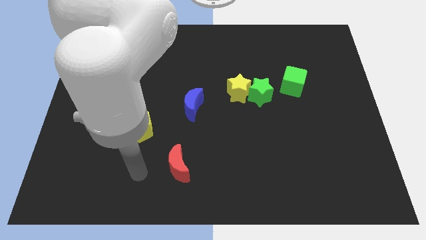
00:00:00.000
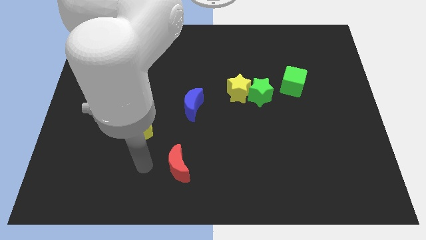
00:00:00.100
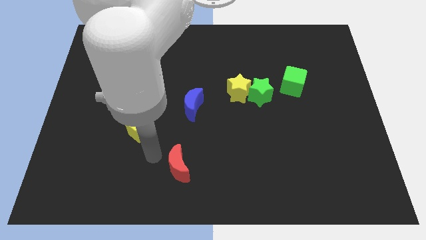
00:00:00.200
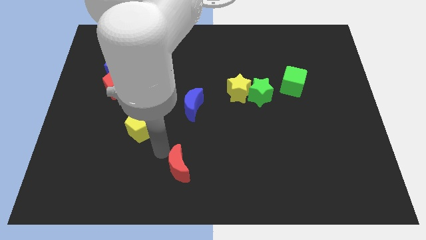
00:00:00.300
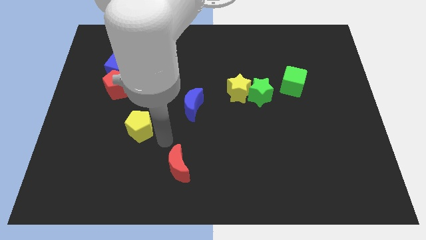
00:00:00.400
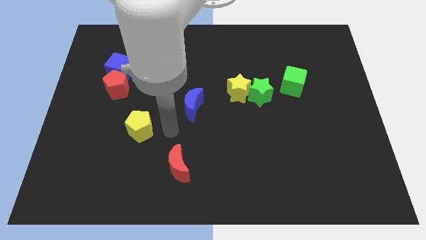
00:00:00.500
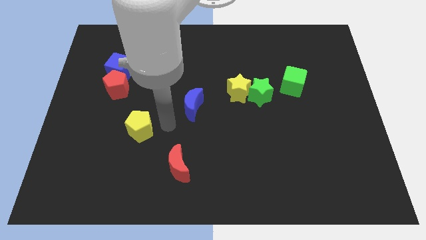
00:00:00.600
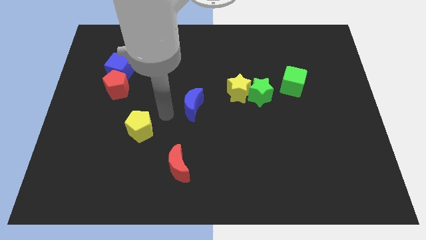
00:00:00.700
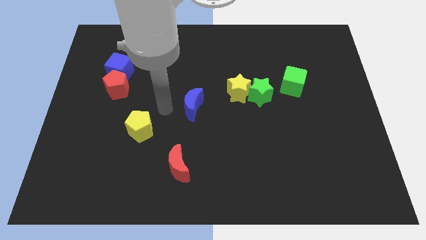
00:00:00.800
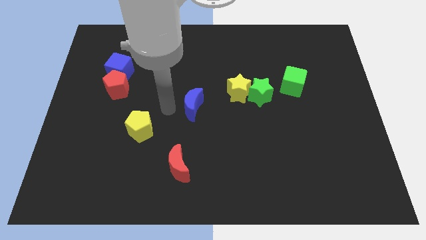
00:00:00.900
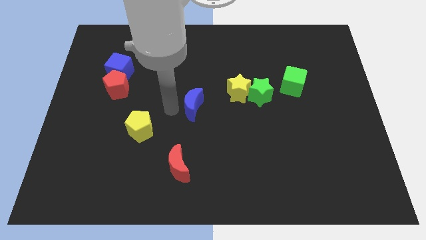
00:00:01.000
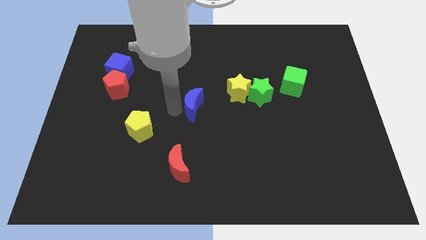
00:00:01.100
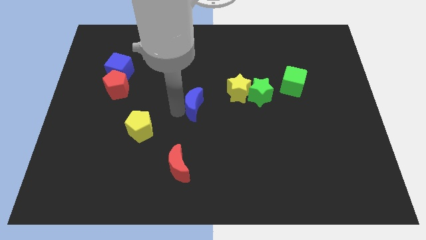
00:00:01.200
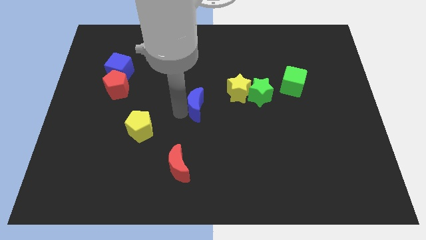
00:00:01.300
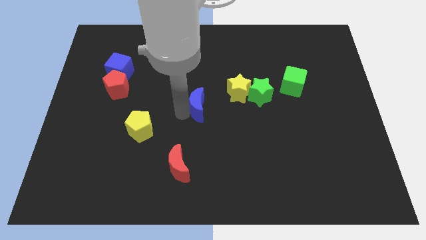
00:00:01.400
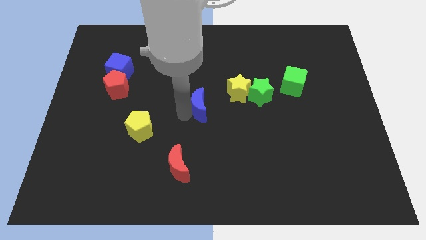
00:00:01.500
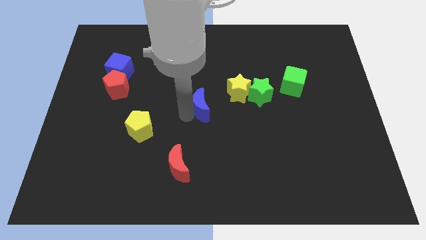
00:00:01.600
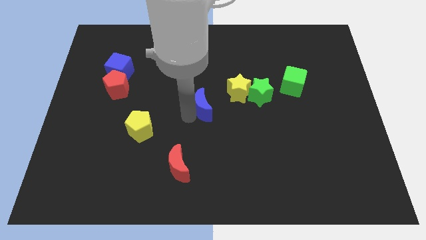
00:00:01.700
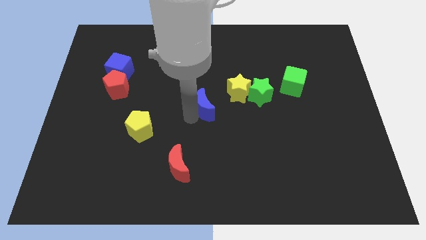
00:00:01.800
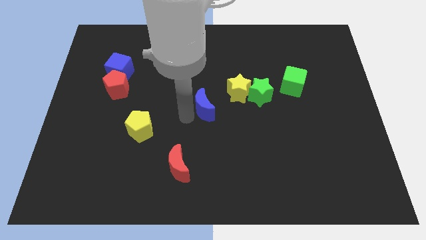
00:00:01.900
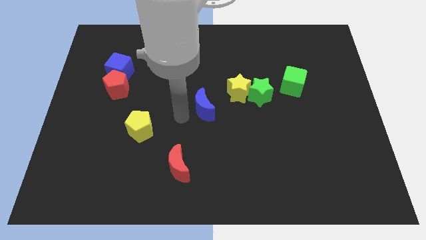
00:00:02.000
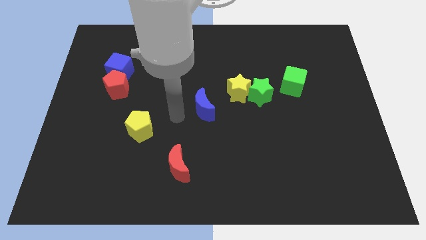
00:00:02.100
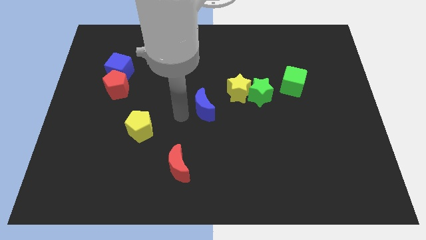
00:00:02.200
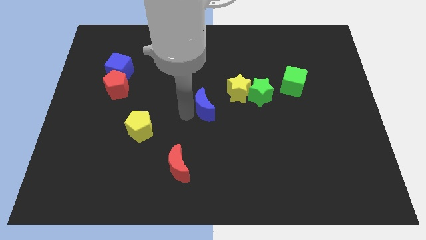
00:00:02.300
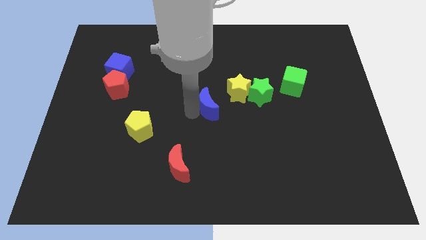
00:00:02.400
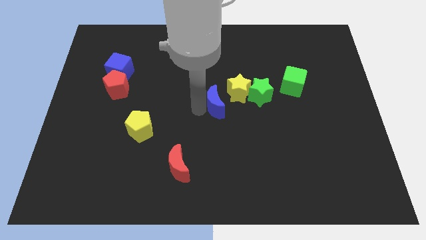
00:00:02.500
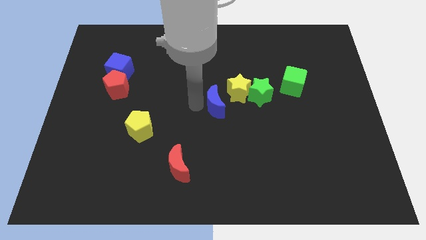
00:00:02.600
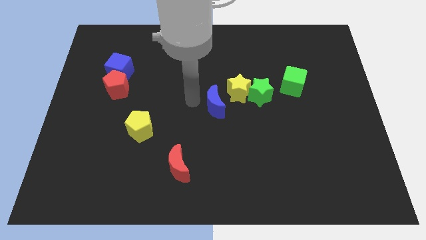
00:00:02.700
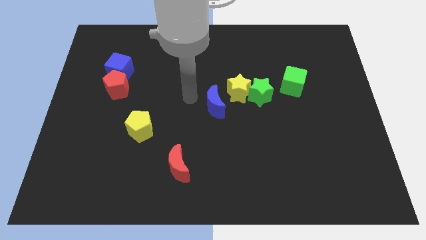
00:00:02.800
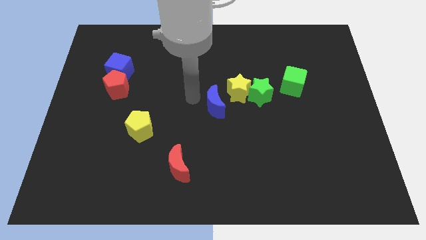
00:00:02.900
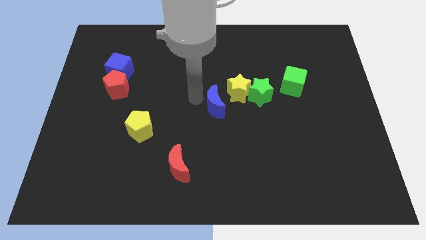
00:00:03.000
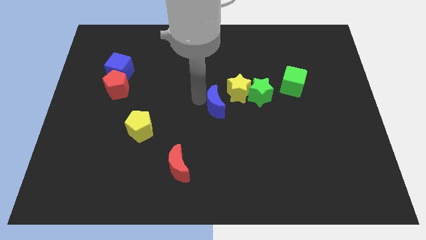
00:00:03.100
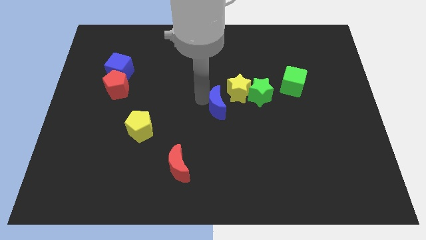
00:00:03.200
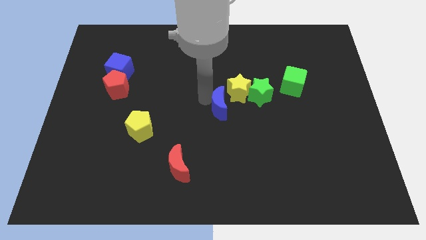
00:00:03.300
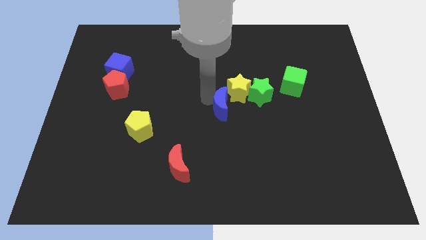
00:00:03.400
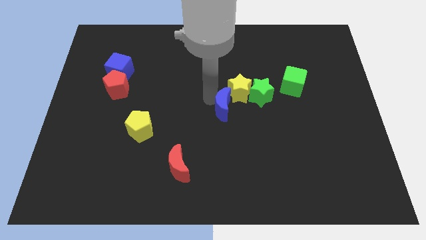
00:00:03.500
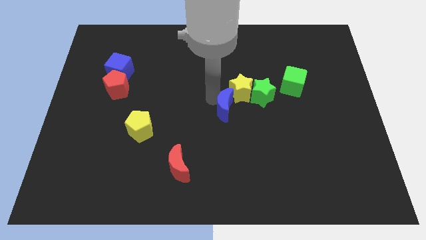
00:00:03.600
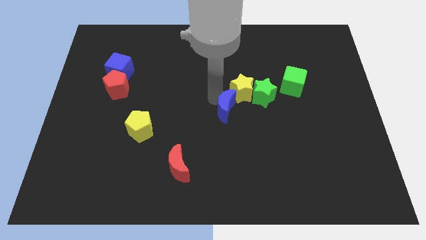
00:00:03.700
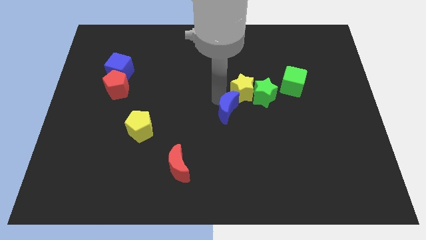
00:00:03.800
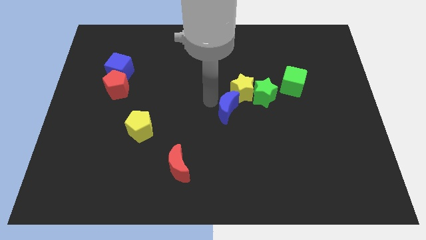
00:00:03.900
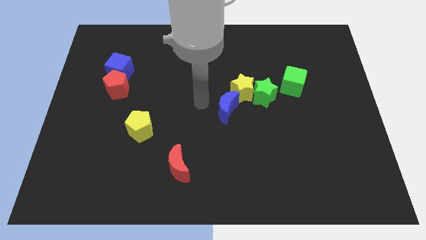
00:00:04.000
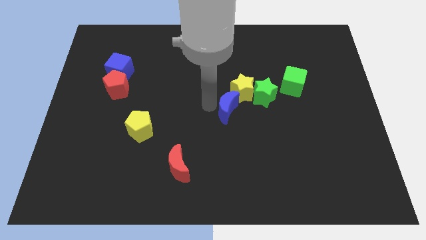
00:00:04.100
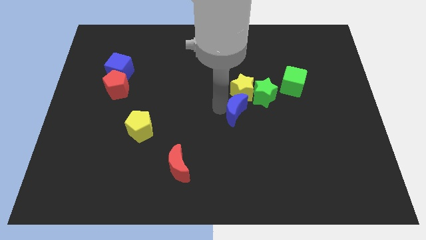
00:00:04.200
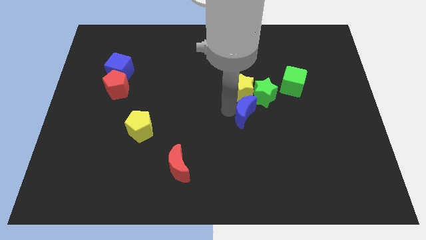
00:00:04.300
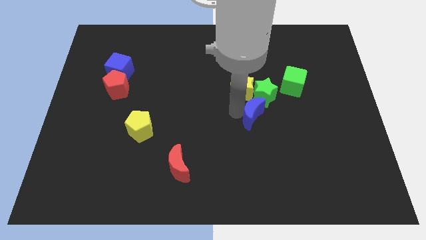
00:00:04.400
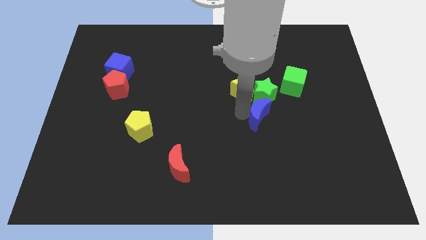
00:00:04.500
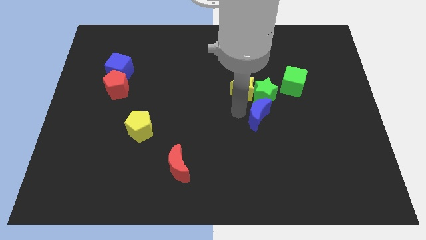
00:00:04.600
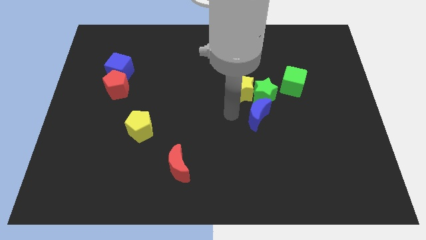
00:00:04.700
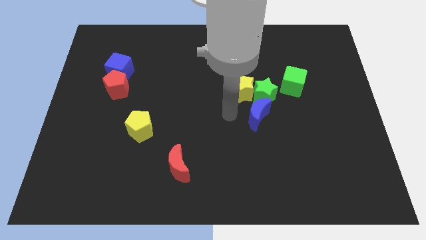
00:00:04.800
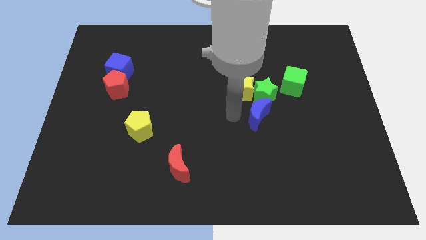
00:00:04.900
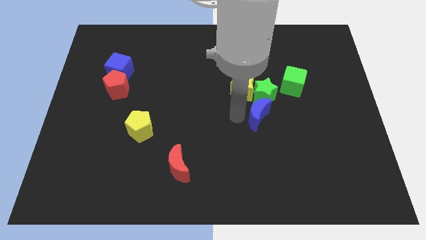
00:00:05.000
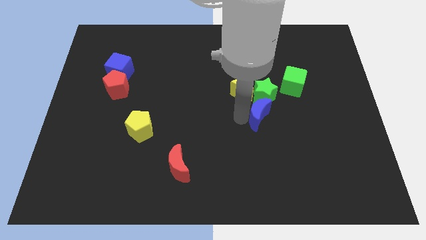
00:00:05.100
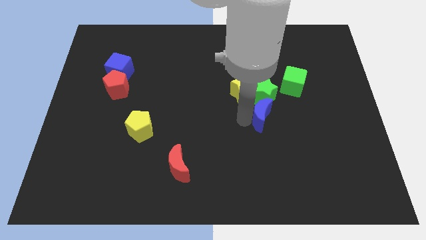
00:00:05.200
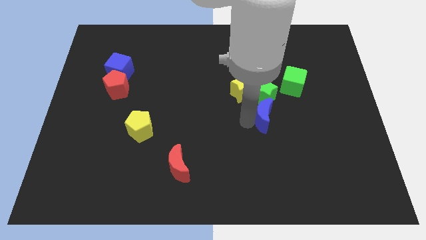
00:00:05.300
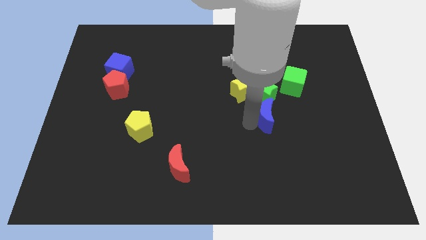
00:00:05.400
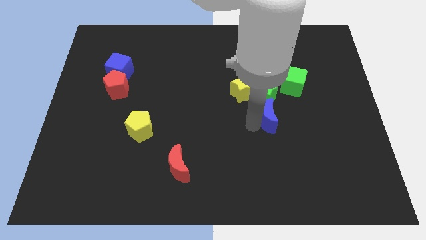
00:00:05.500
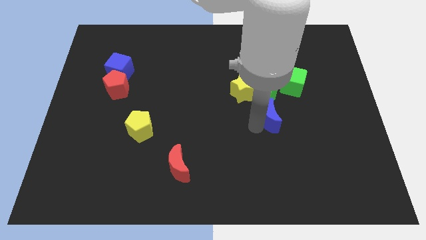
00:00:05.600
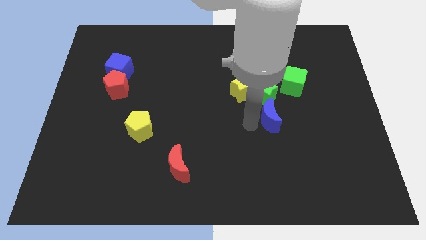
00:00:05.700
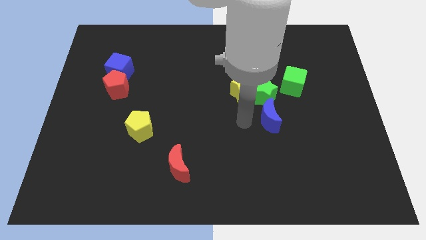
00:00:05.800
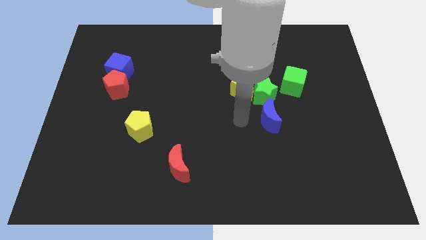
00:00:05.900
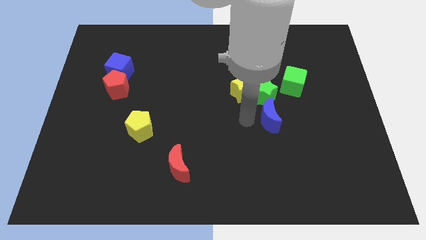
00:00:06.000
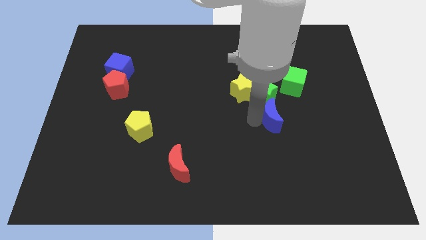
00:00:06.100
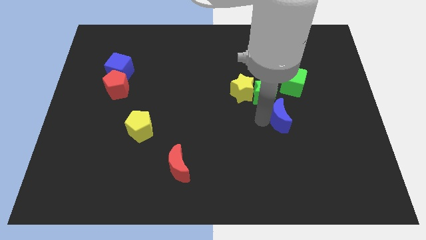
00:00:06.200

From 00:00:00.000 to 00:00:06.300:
push the blue moon to the bottom side of the green cube
